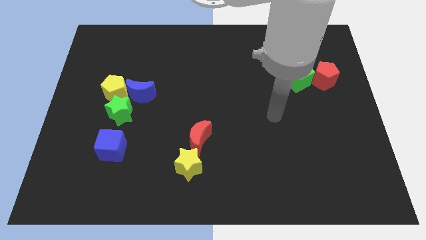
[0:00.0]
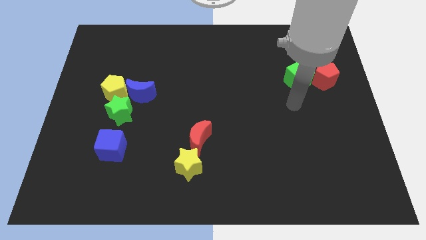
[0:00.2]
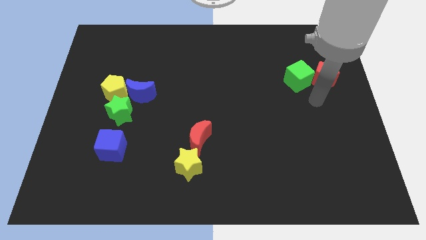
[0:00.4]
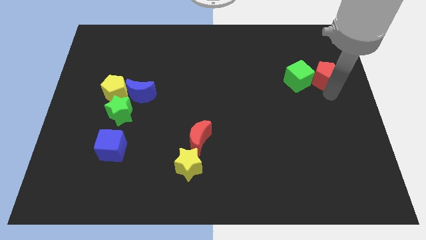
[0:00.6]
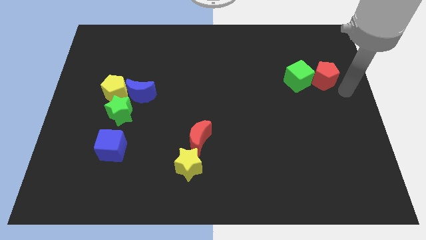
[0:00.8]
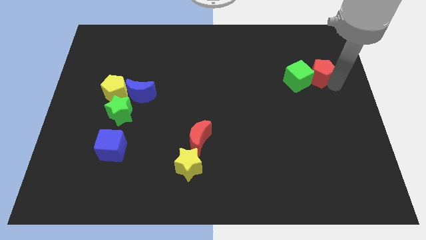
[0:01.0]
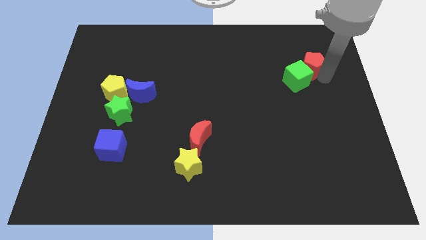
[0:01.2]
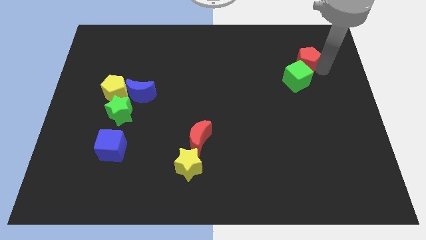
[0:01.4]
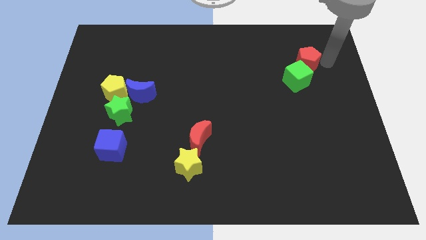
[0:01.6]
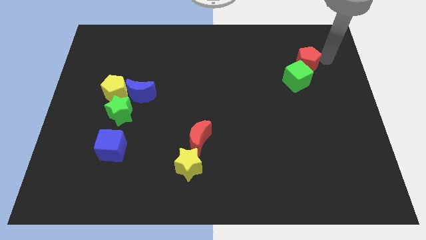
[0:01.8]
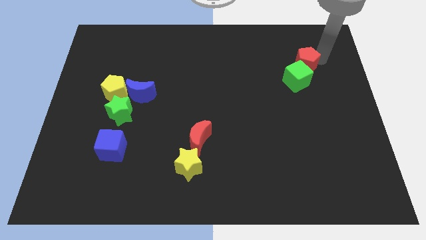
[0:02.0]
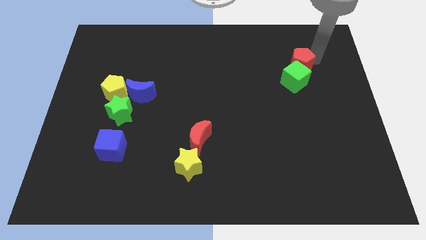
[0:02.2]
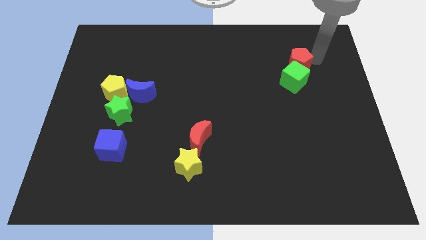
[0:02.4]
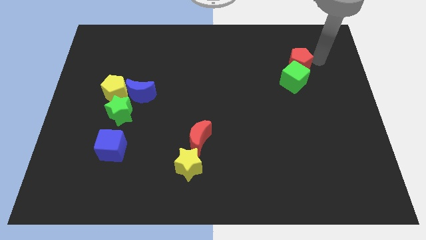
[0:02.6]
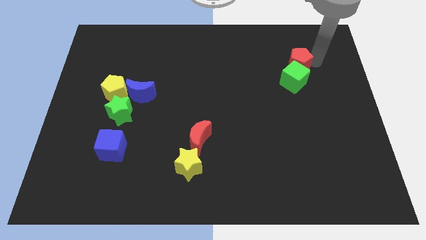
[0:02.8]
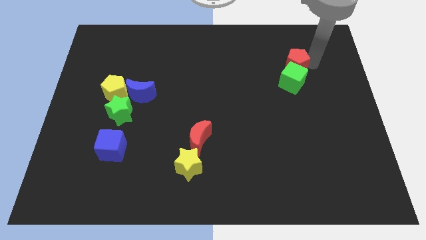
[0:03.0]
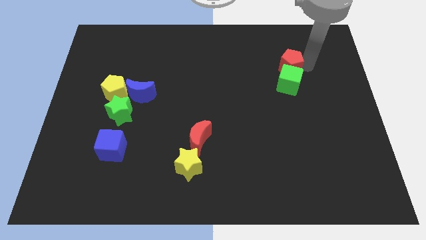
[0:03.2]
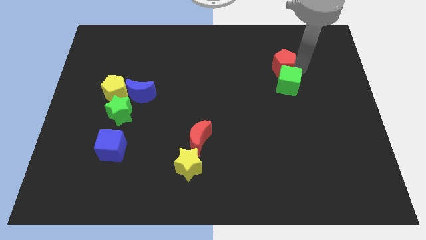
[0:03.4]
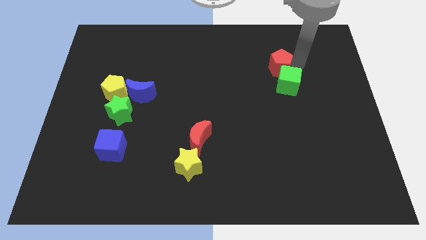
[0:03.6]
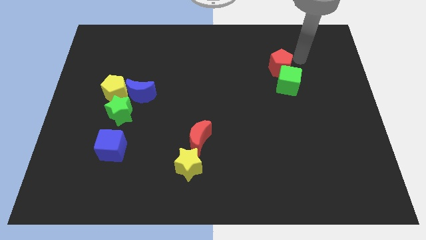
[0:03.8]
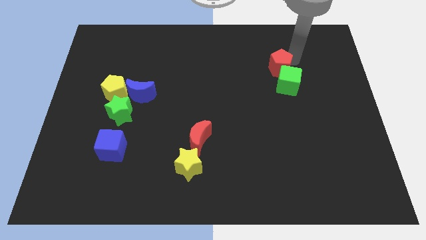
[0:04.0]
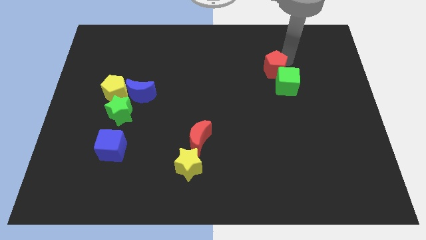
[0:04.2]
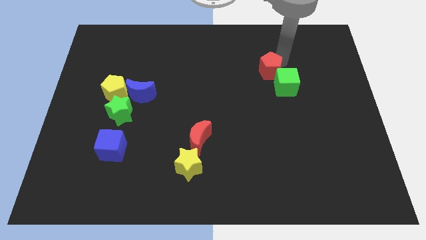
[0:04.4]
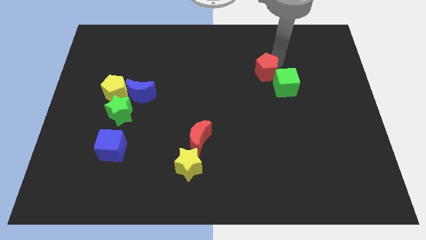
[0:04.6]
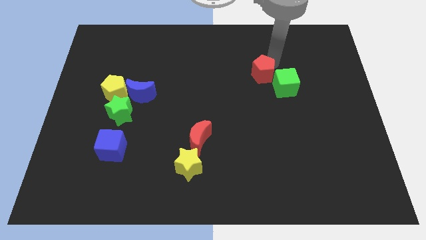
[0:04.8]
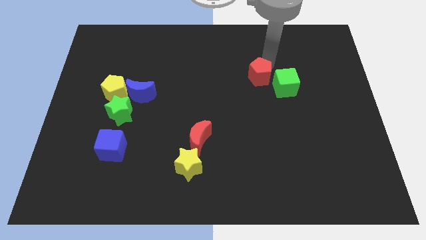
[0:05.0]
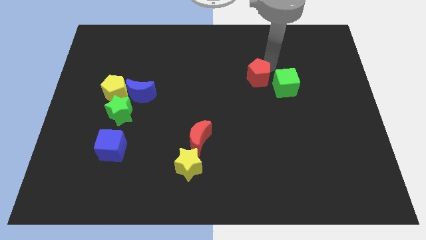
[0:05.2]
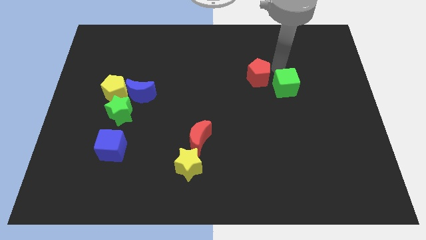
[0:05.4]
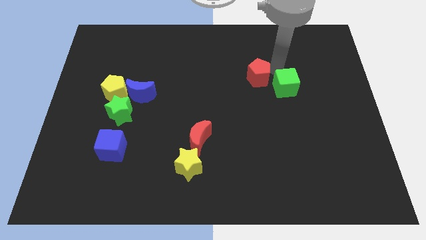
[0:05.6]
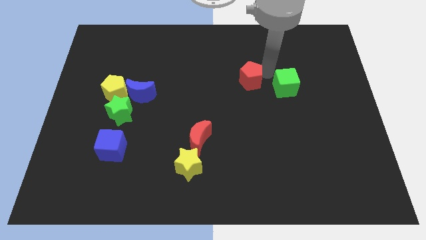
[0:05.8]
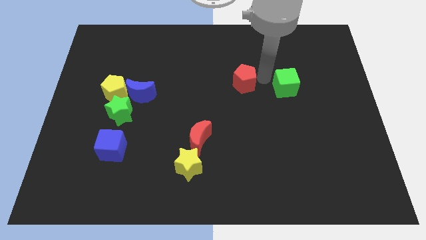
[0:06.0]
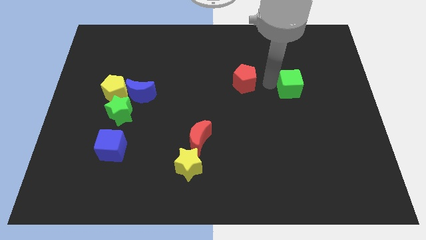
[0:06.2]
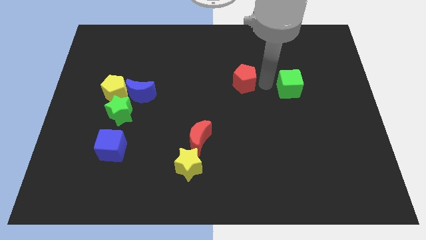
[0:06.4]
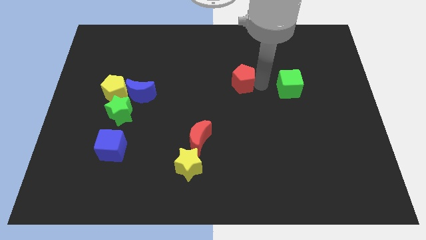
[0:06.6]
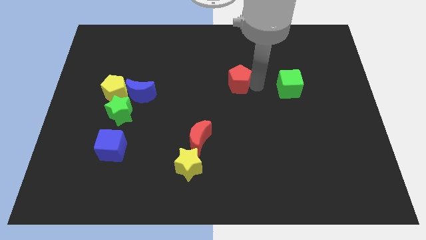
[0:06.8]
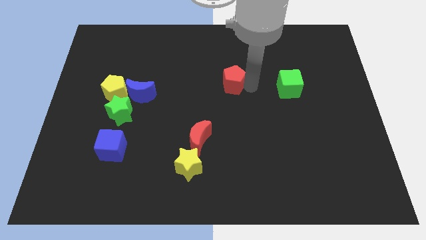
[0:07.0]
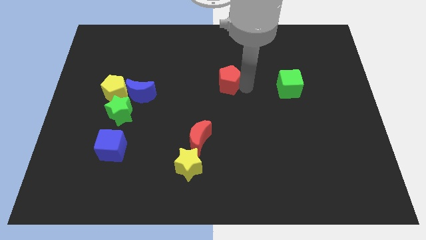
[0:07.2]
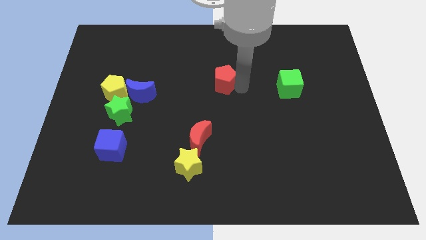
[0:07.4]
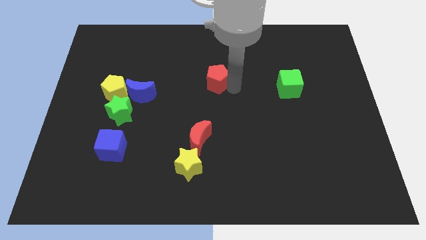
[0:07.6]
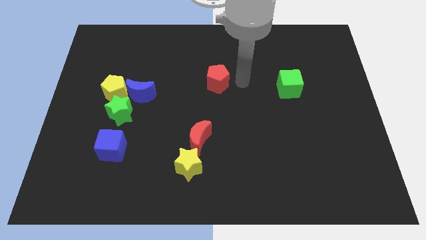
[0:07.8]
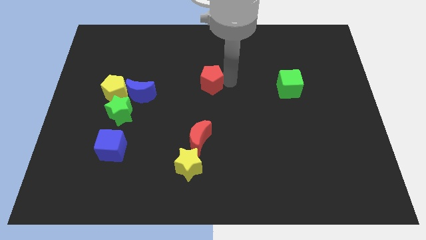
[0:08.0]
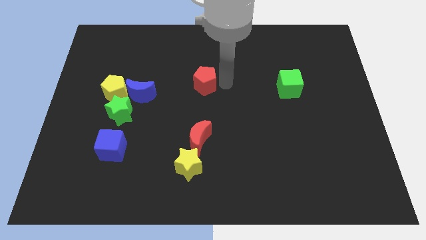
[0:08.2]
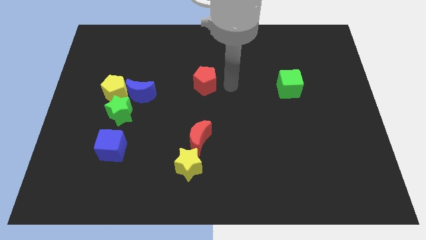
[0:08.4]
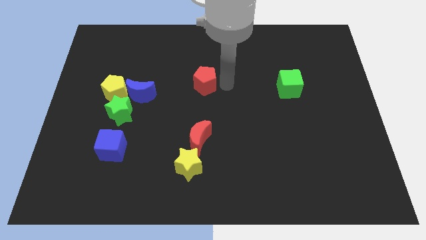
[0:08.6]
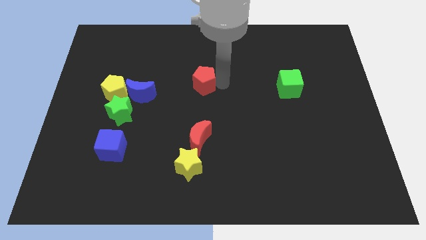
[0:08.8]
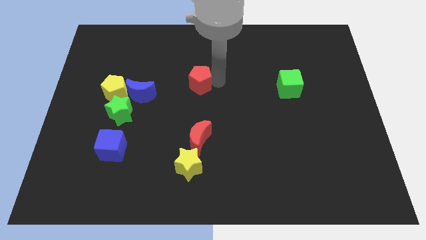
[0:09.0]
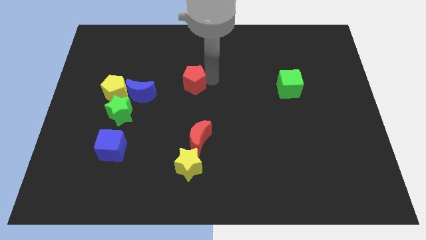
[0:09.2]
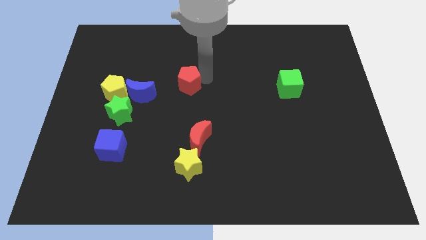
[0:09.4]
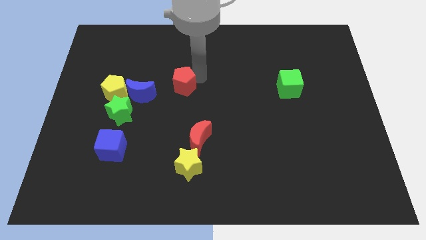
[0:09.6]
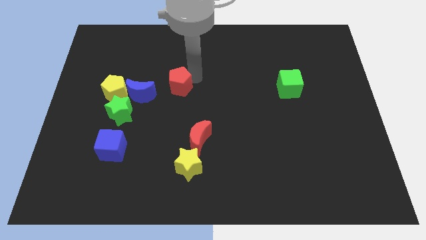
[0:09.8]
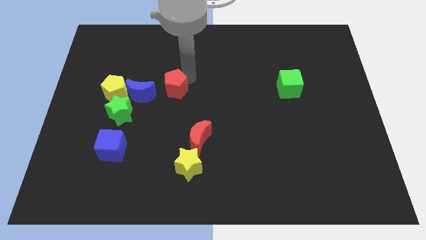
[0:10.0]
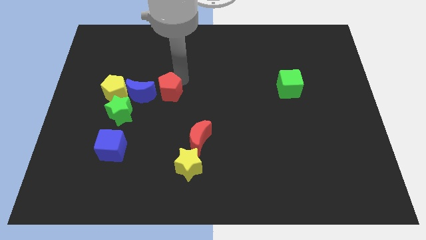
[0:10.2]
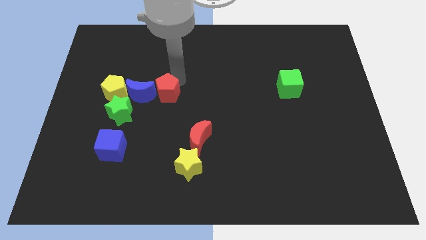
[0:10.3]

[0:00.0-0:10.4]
slide the red pentagon towards the blue moon

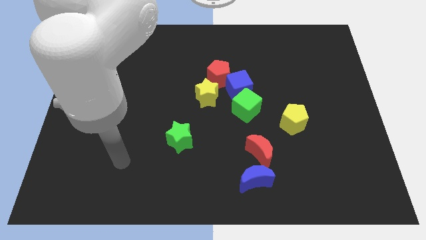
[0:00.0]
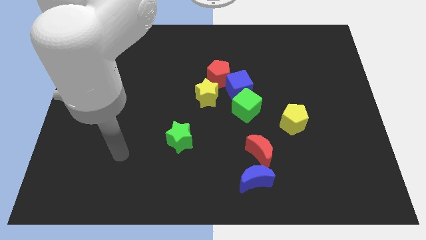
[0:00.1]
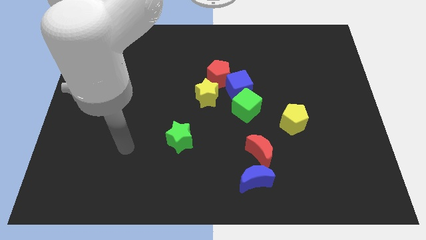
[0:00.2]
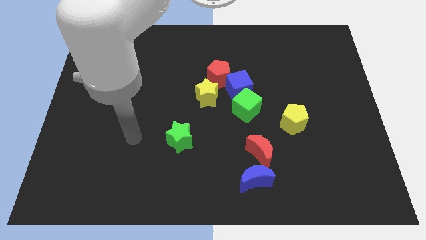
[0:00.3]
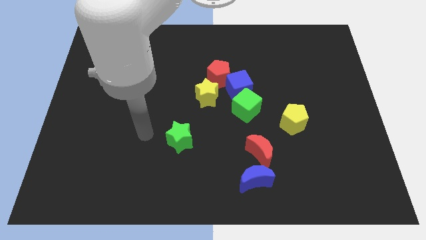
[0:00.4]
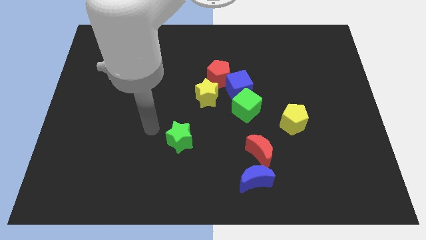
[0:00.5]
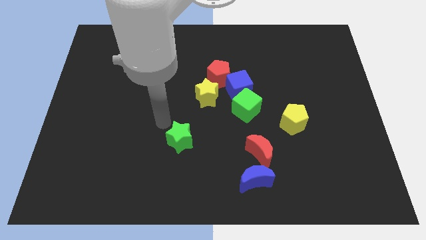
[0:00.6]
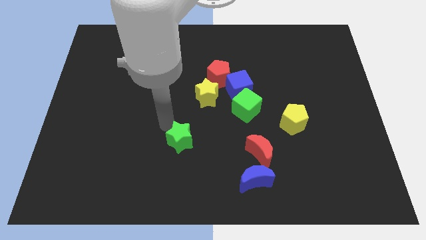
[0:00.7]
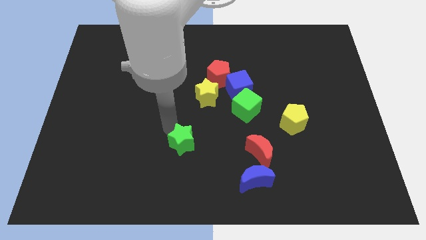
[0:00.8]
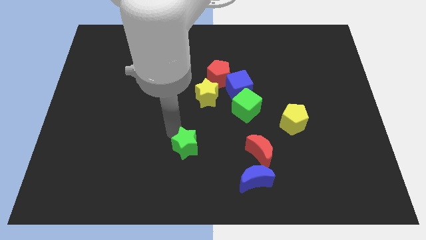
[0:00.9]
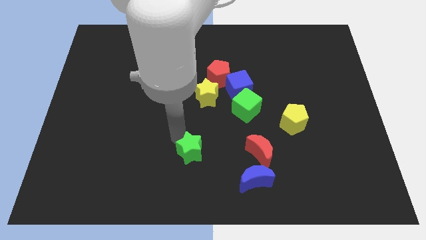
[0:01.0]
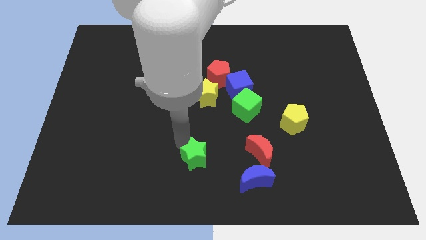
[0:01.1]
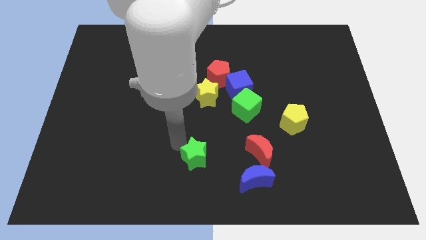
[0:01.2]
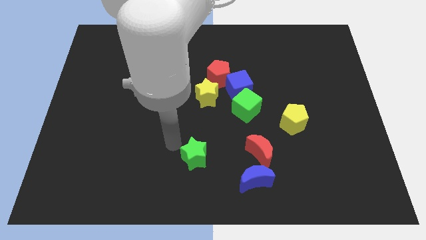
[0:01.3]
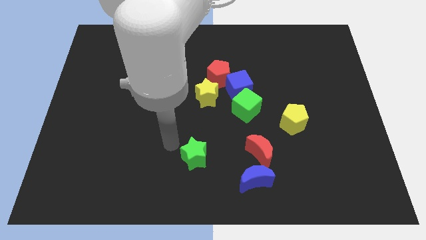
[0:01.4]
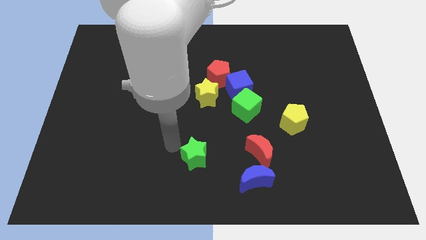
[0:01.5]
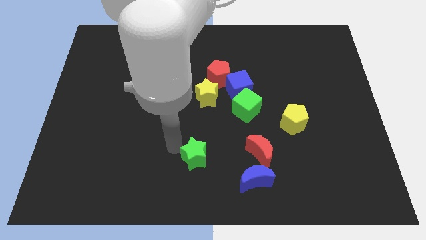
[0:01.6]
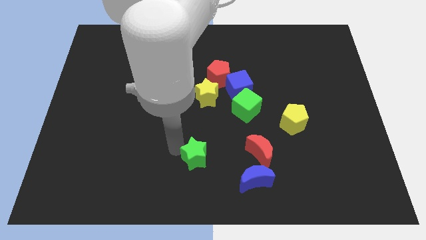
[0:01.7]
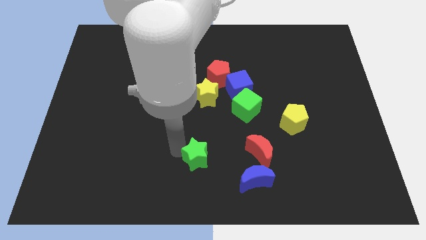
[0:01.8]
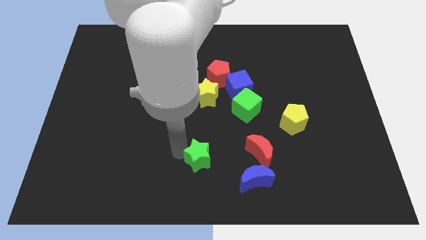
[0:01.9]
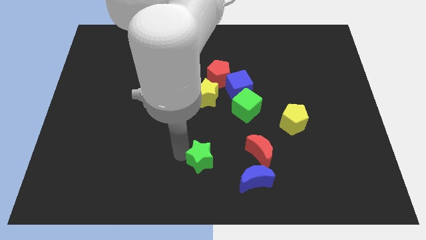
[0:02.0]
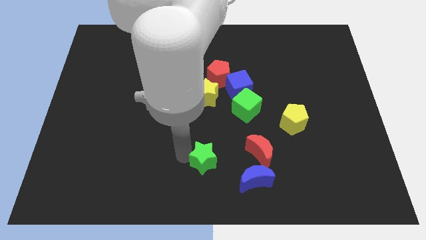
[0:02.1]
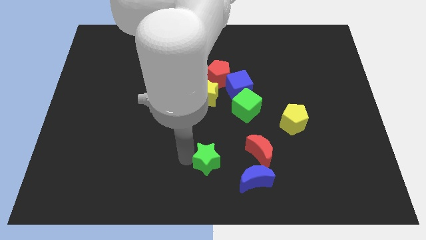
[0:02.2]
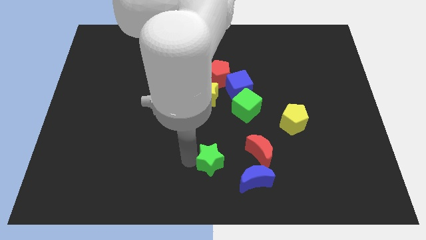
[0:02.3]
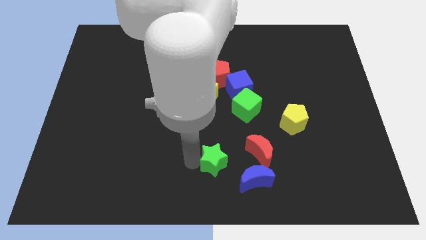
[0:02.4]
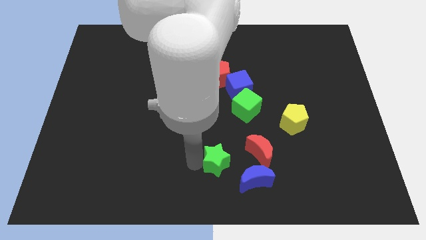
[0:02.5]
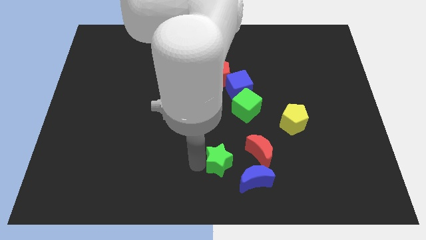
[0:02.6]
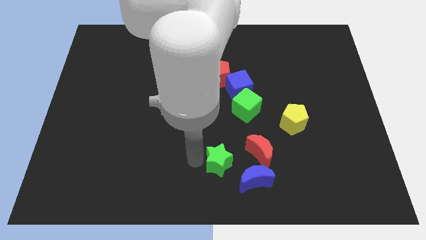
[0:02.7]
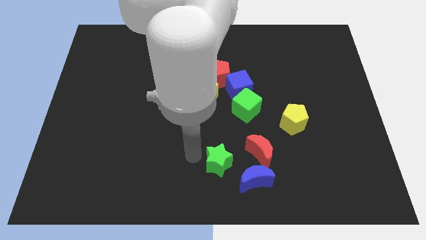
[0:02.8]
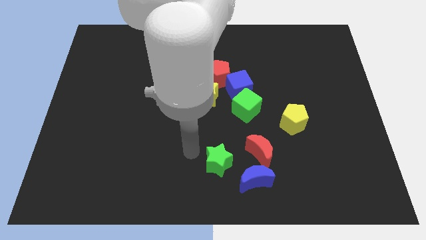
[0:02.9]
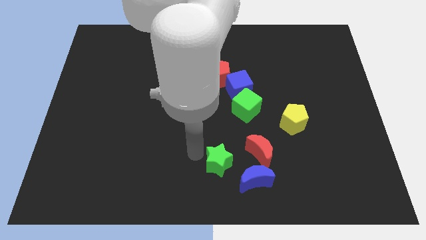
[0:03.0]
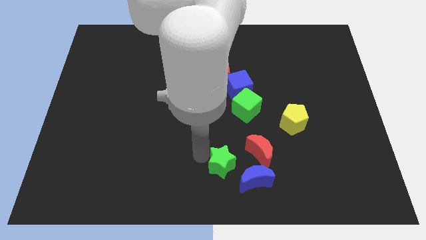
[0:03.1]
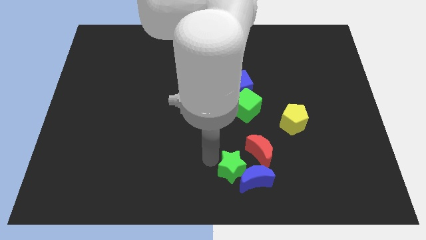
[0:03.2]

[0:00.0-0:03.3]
slide the green star next to the blue moon
